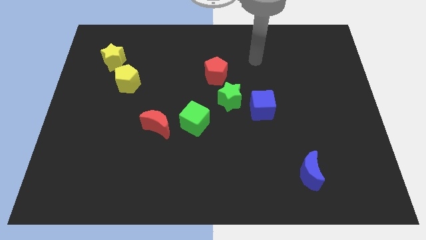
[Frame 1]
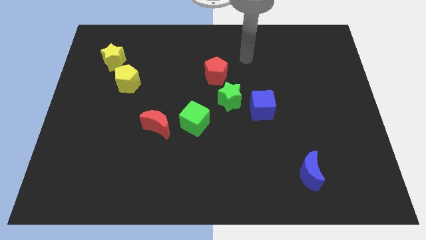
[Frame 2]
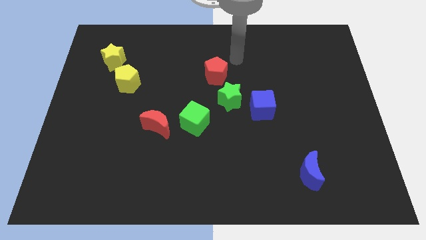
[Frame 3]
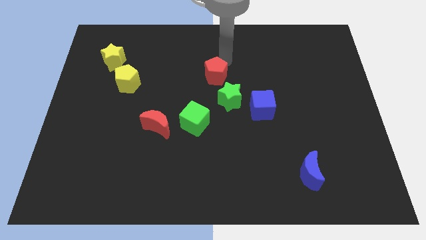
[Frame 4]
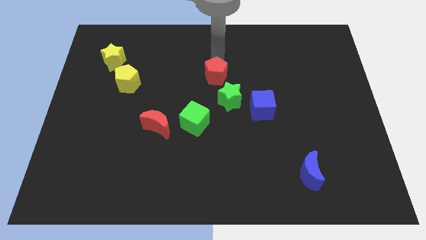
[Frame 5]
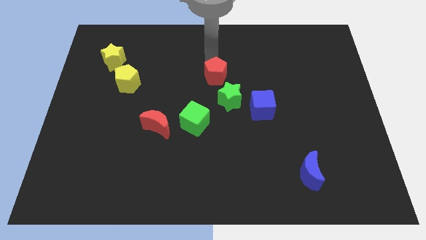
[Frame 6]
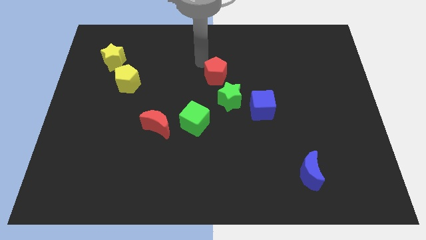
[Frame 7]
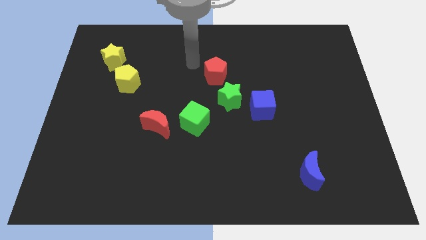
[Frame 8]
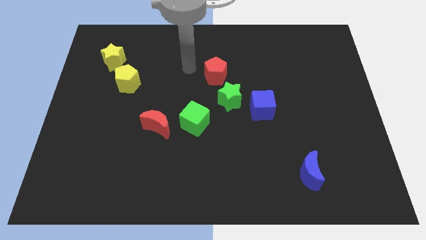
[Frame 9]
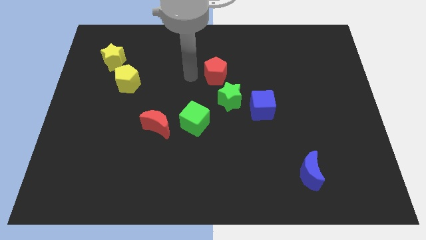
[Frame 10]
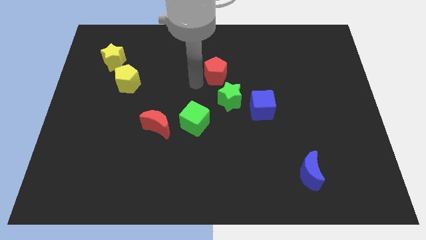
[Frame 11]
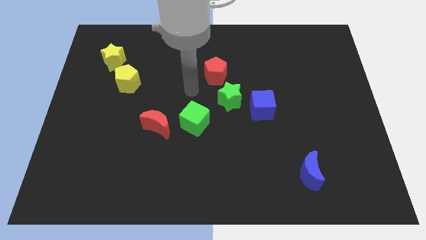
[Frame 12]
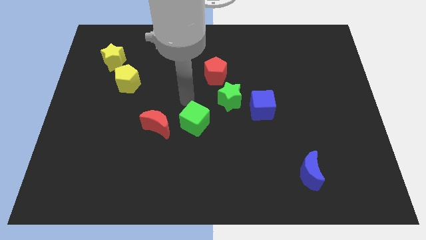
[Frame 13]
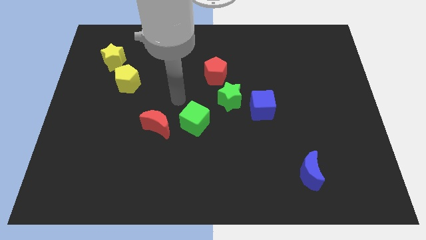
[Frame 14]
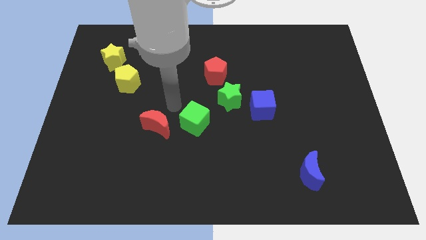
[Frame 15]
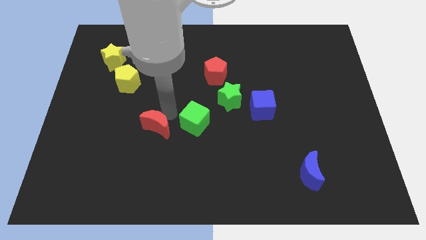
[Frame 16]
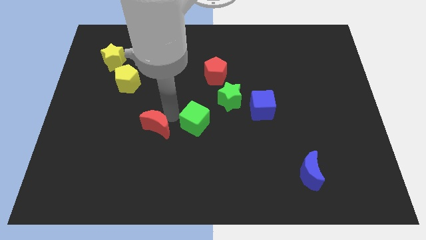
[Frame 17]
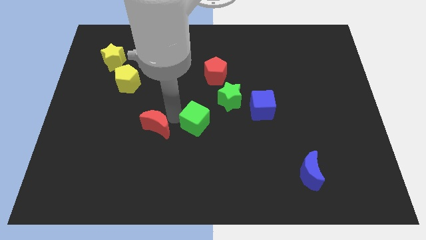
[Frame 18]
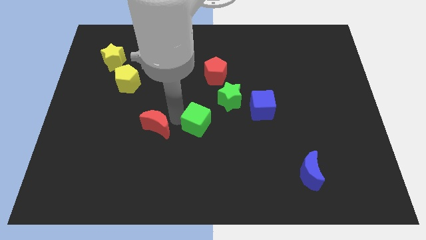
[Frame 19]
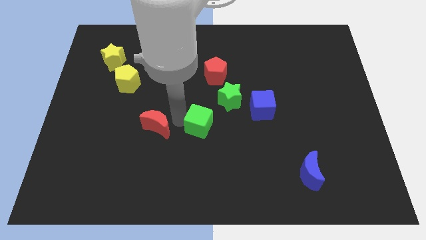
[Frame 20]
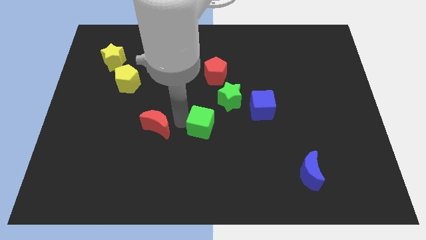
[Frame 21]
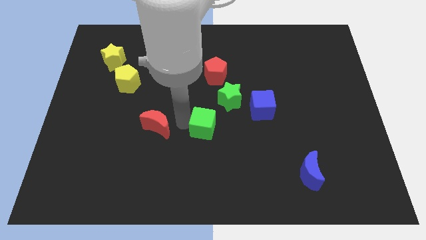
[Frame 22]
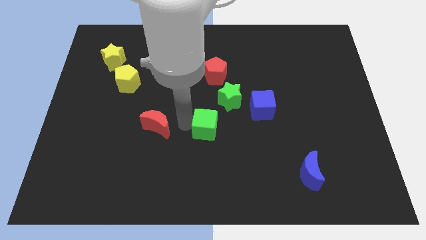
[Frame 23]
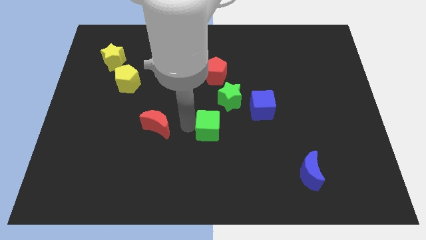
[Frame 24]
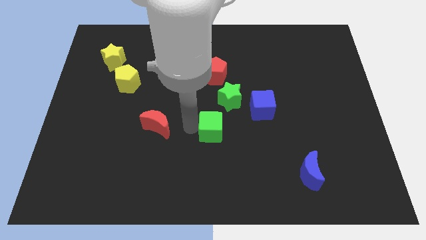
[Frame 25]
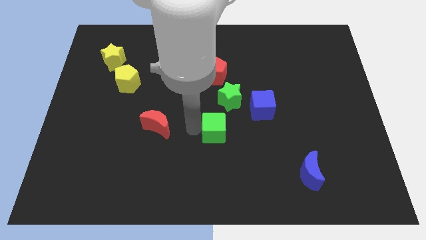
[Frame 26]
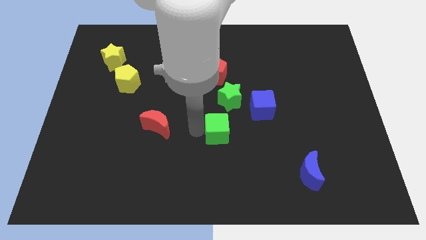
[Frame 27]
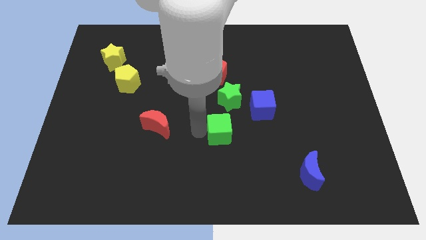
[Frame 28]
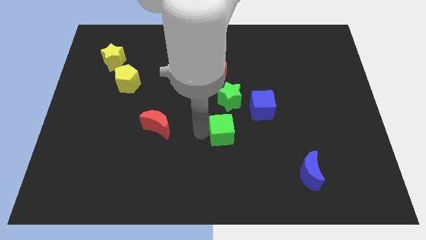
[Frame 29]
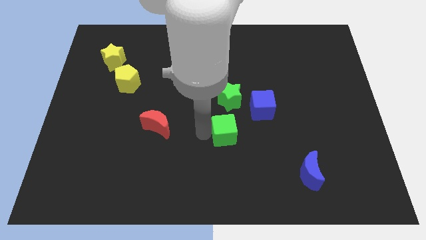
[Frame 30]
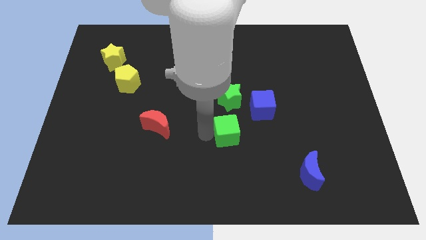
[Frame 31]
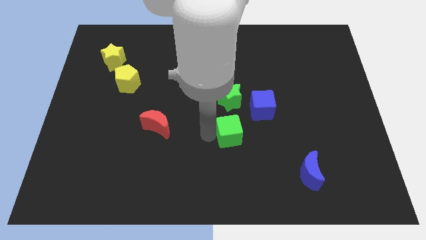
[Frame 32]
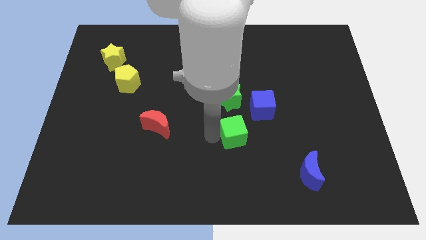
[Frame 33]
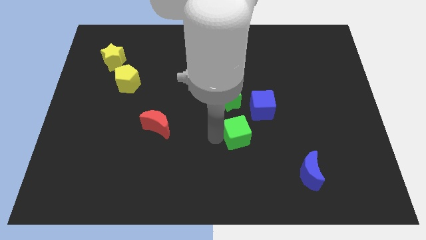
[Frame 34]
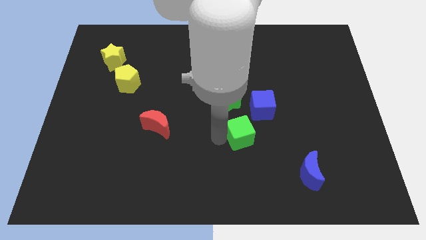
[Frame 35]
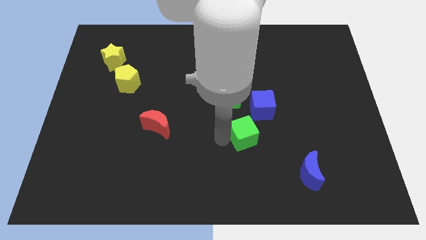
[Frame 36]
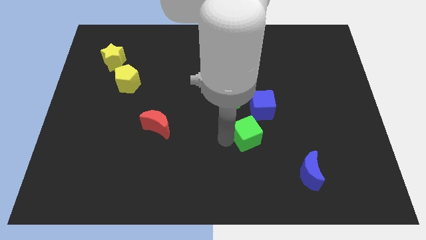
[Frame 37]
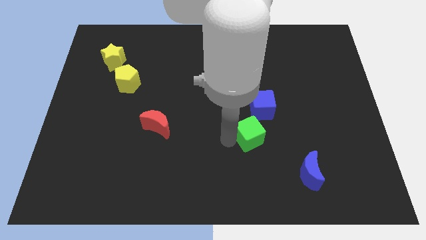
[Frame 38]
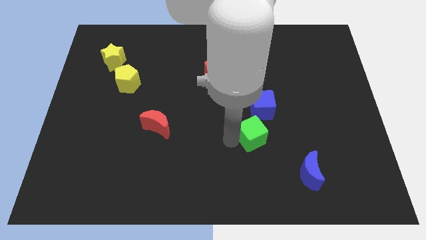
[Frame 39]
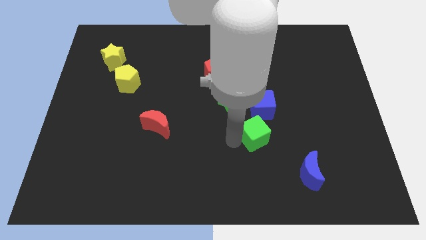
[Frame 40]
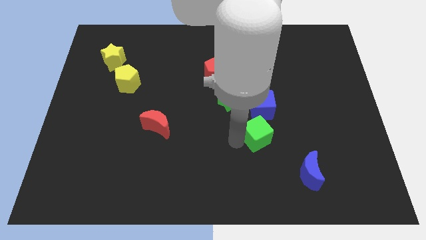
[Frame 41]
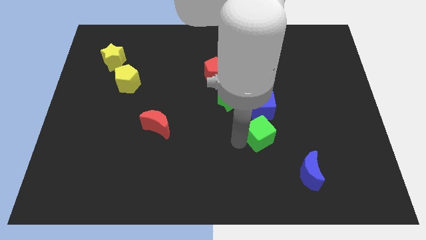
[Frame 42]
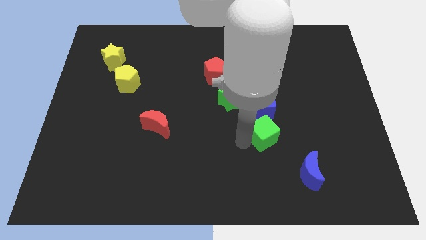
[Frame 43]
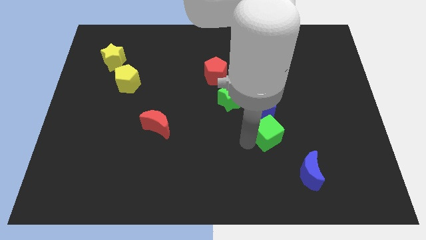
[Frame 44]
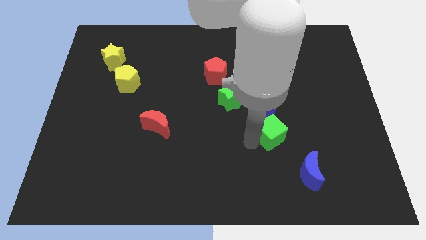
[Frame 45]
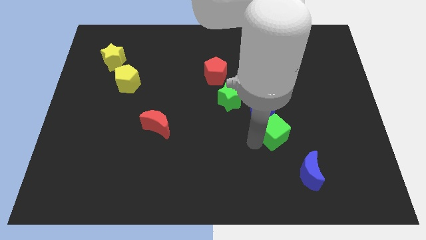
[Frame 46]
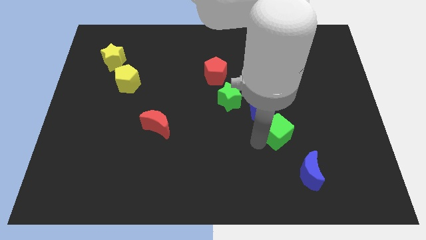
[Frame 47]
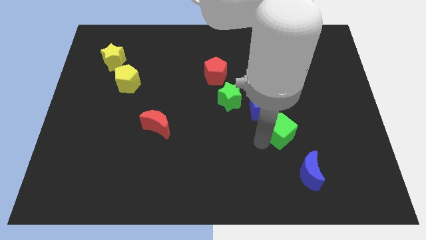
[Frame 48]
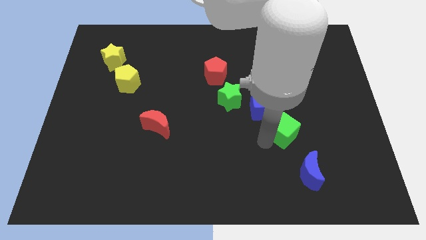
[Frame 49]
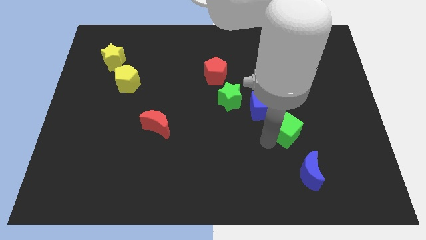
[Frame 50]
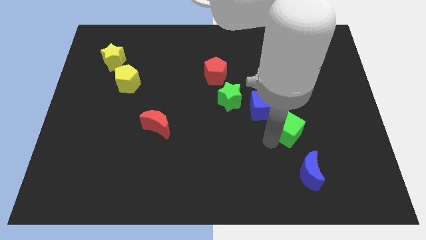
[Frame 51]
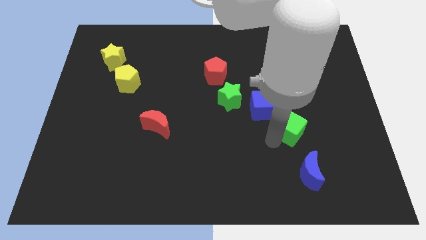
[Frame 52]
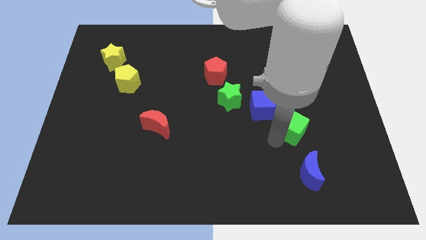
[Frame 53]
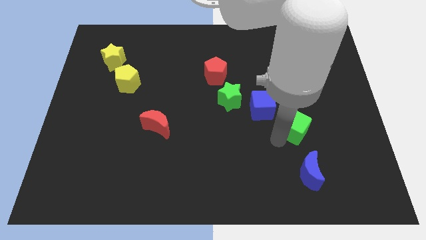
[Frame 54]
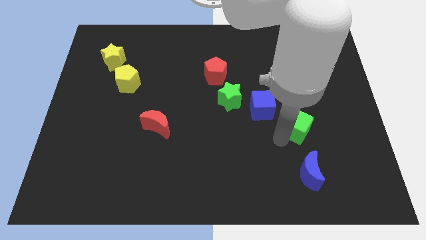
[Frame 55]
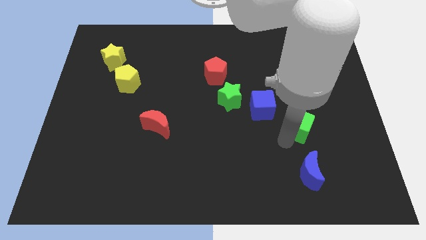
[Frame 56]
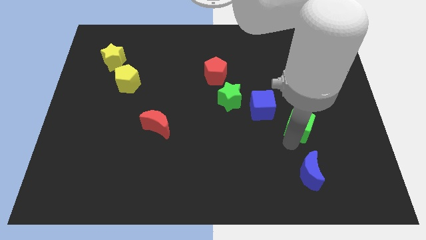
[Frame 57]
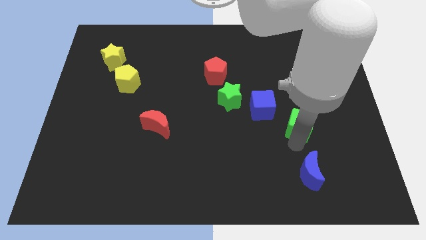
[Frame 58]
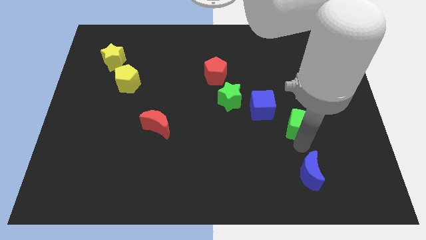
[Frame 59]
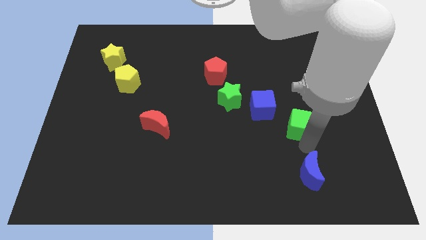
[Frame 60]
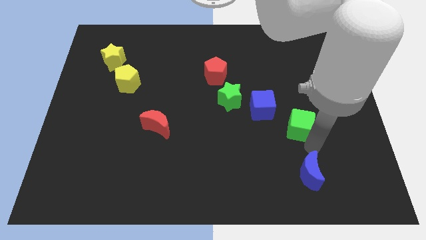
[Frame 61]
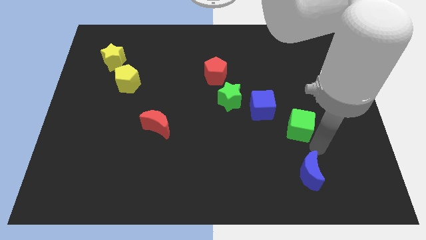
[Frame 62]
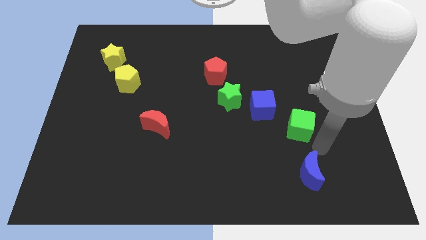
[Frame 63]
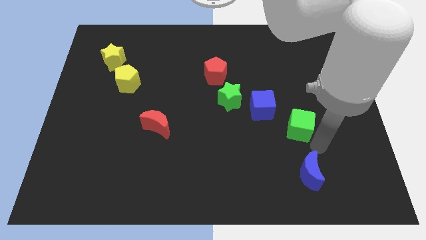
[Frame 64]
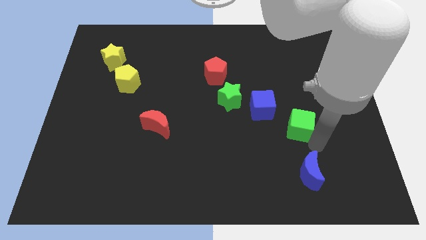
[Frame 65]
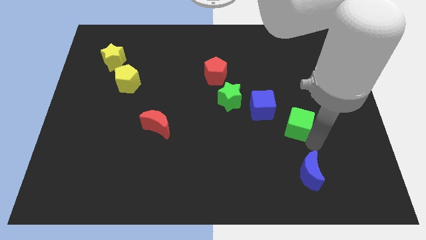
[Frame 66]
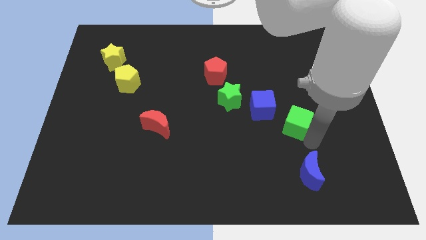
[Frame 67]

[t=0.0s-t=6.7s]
push the green cube right of the blue cube

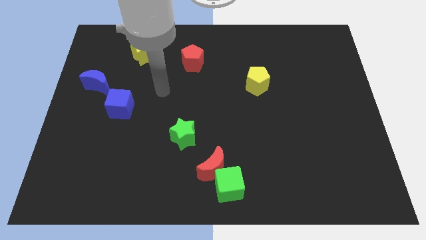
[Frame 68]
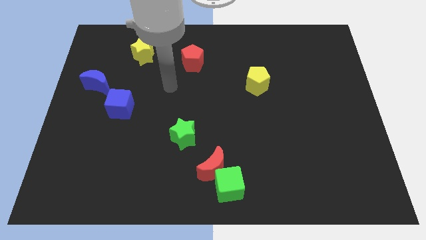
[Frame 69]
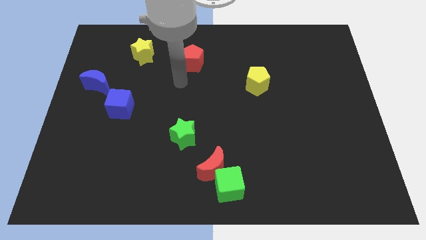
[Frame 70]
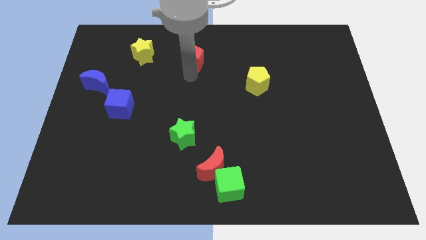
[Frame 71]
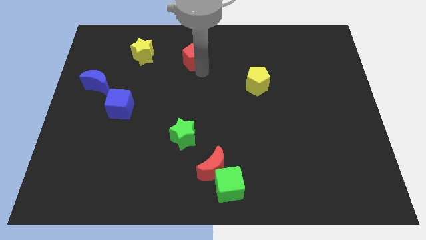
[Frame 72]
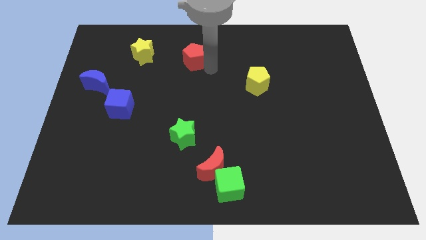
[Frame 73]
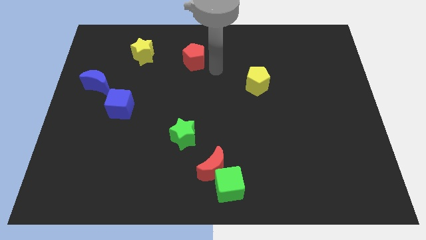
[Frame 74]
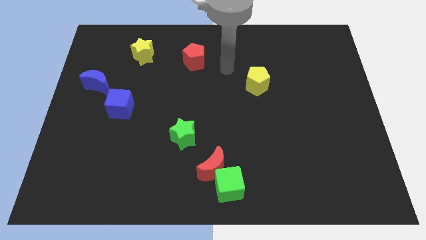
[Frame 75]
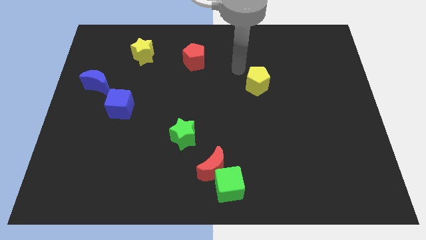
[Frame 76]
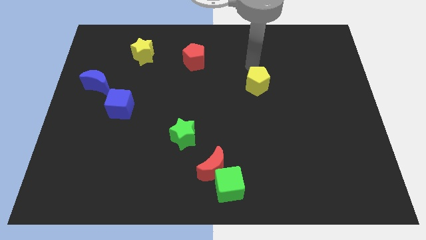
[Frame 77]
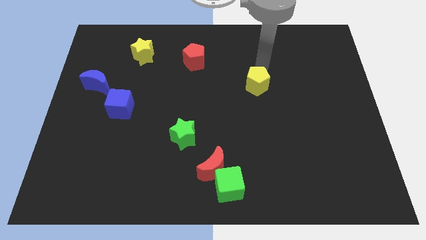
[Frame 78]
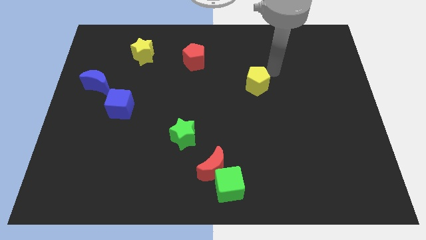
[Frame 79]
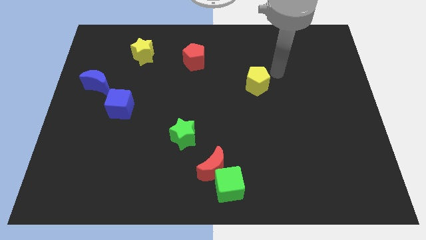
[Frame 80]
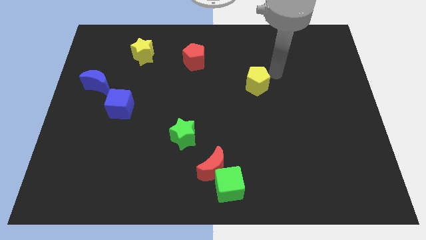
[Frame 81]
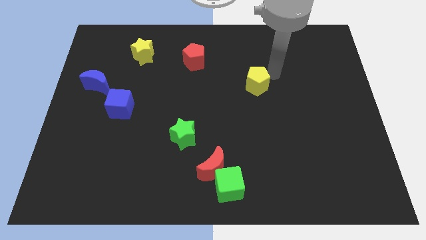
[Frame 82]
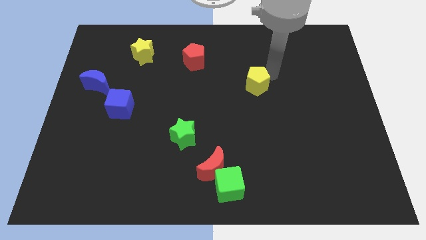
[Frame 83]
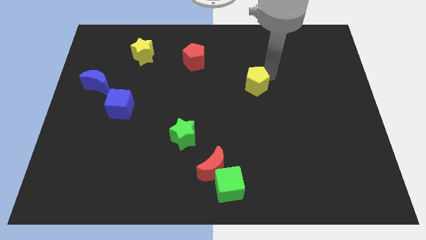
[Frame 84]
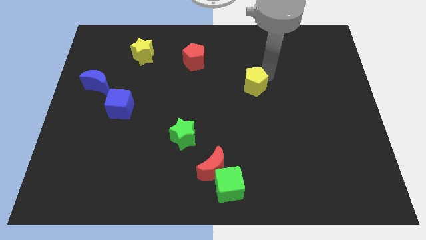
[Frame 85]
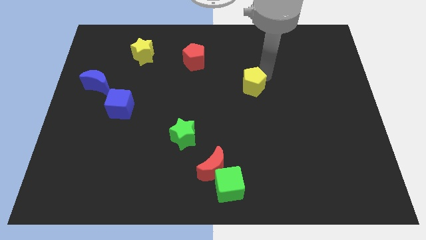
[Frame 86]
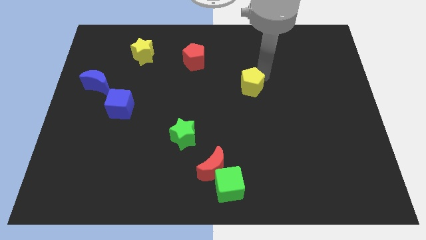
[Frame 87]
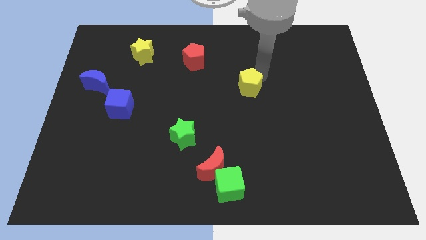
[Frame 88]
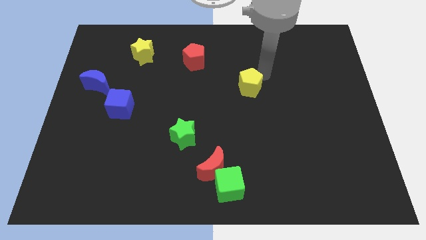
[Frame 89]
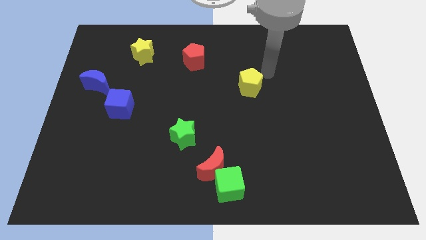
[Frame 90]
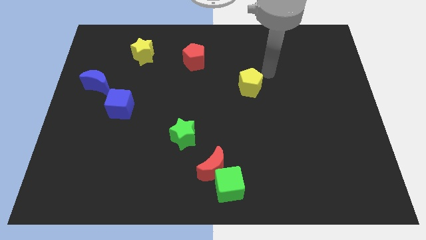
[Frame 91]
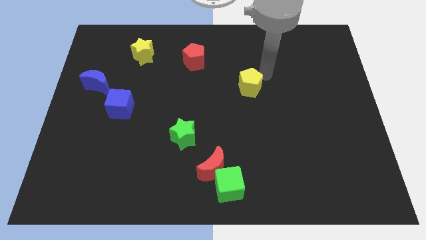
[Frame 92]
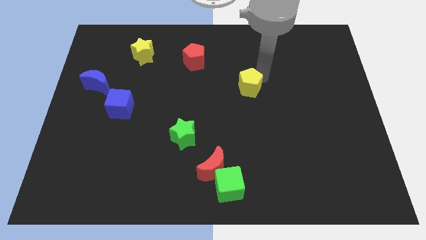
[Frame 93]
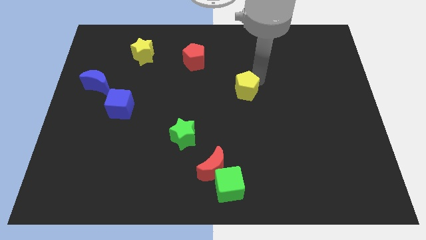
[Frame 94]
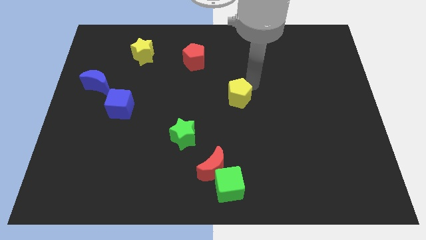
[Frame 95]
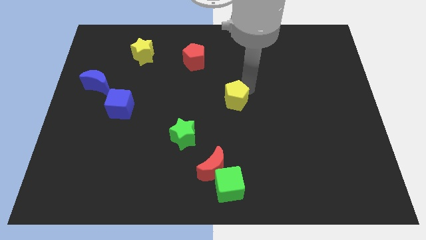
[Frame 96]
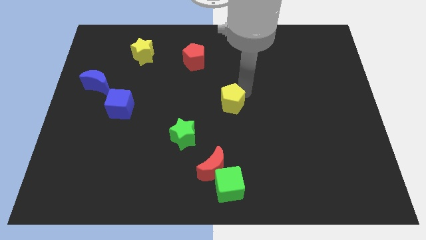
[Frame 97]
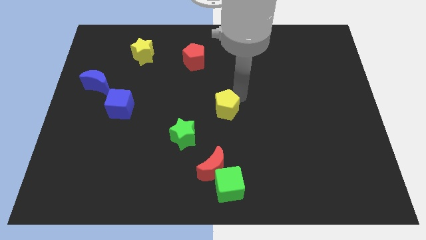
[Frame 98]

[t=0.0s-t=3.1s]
push the yellow pentagon diagonally up and to the right of the green star
